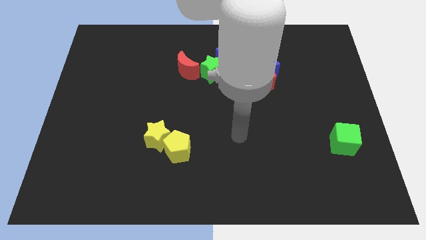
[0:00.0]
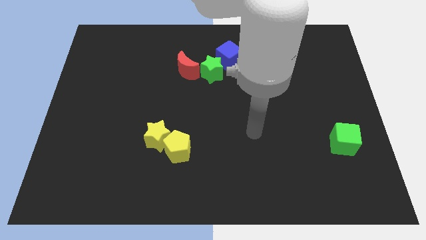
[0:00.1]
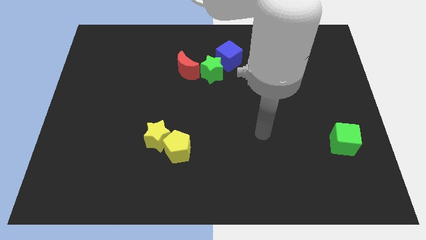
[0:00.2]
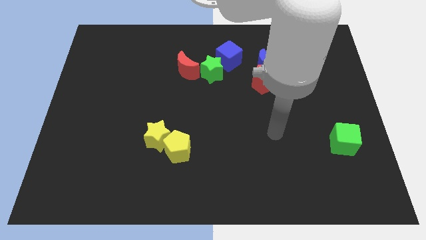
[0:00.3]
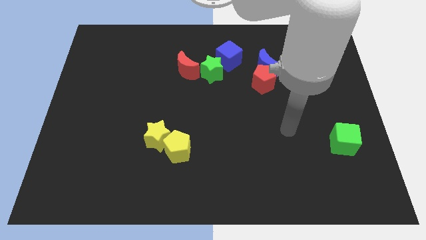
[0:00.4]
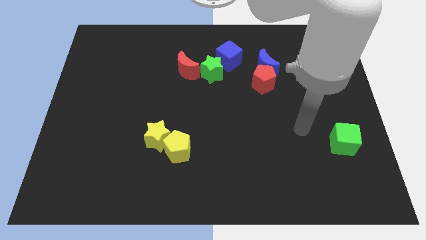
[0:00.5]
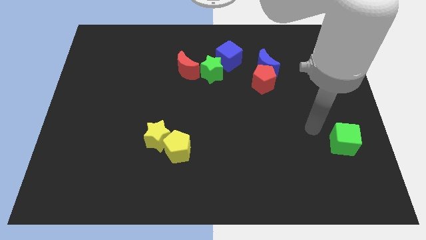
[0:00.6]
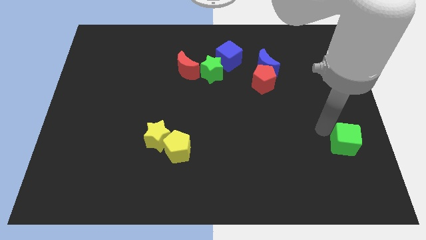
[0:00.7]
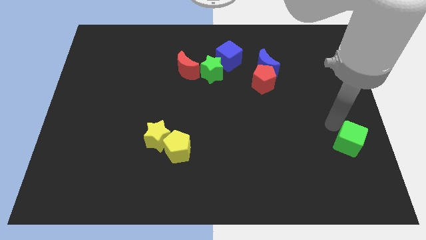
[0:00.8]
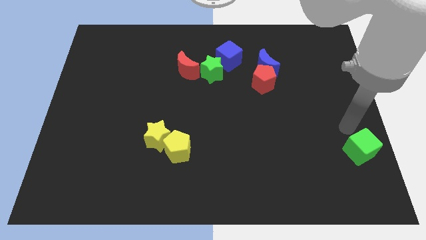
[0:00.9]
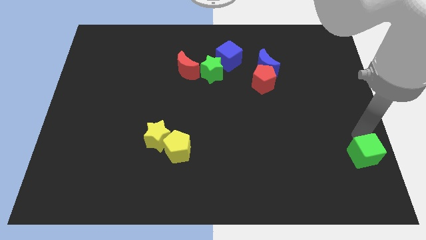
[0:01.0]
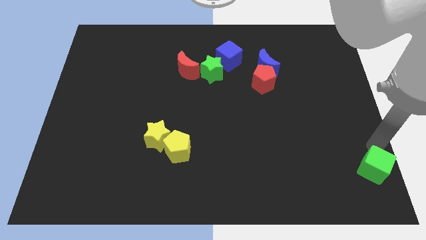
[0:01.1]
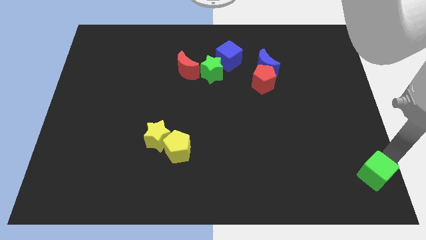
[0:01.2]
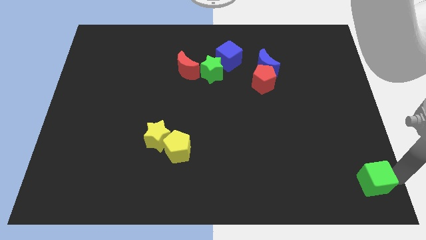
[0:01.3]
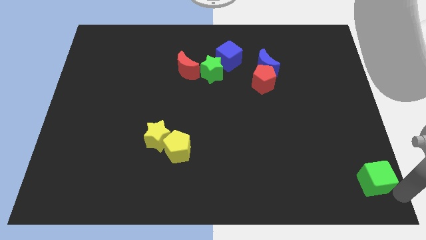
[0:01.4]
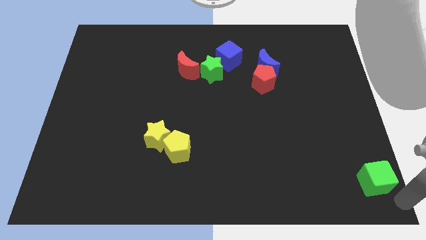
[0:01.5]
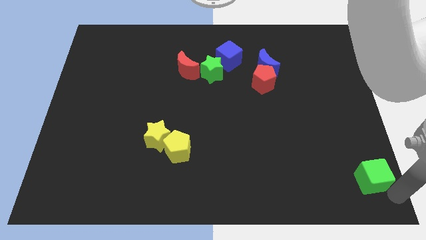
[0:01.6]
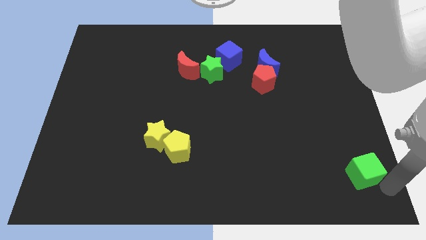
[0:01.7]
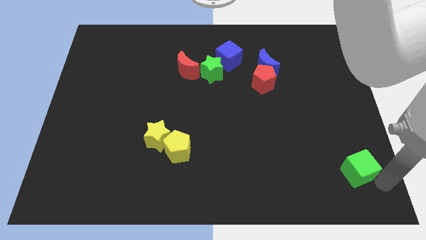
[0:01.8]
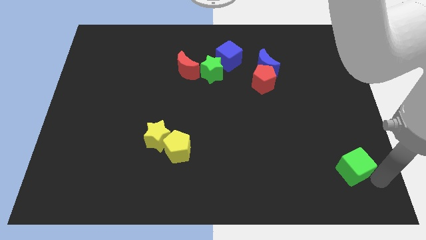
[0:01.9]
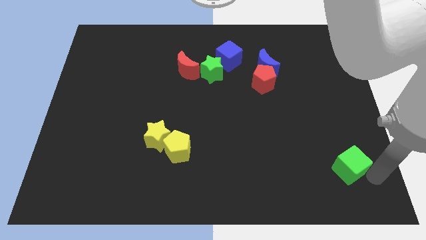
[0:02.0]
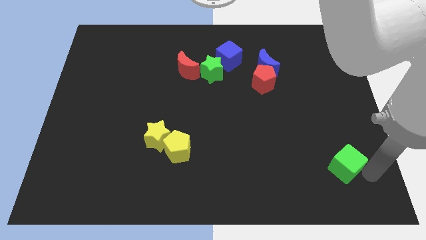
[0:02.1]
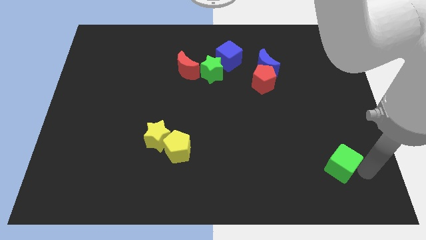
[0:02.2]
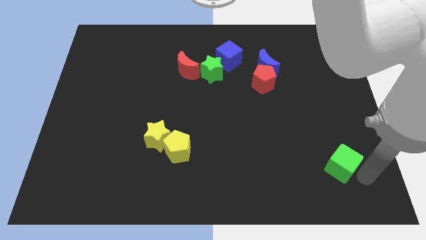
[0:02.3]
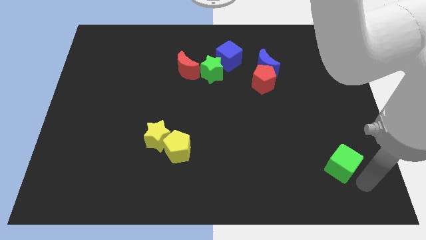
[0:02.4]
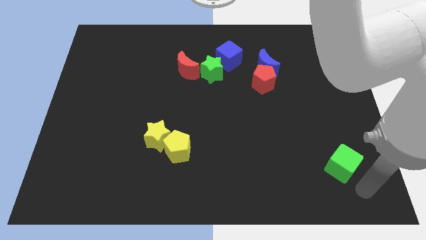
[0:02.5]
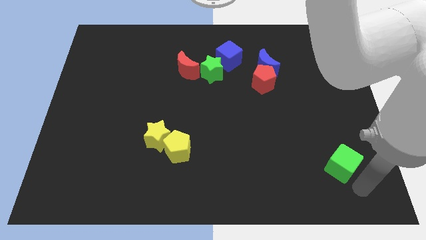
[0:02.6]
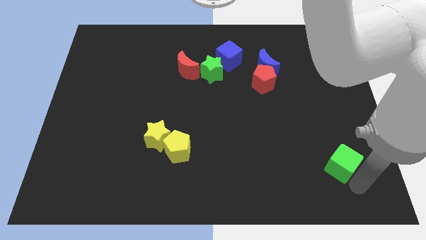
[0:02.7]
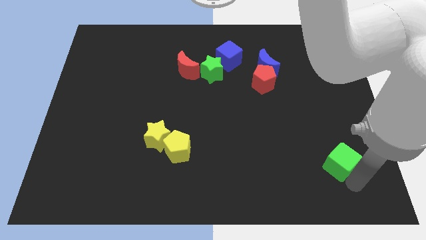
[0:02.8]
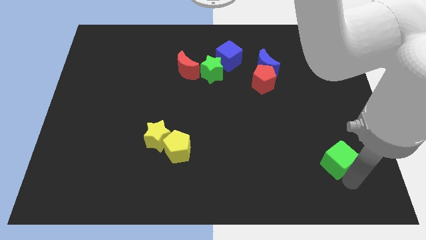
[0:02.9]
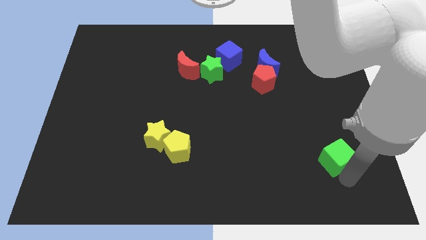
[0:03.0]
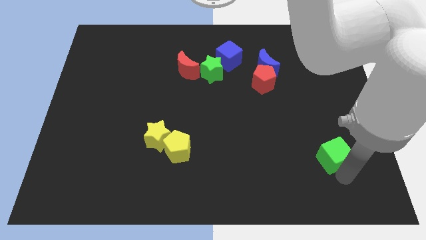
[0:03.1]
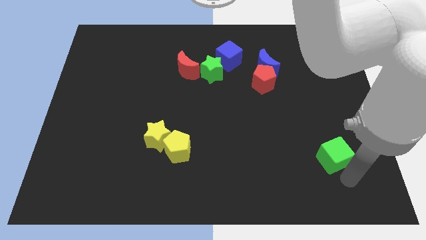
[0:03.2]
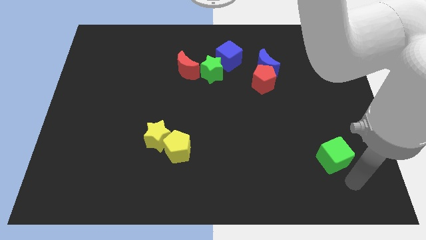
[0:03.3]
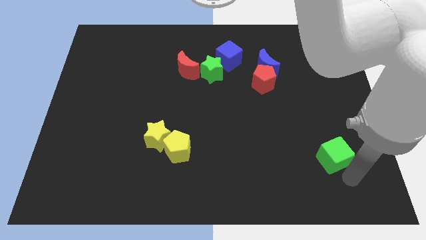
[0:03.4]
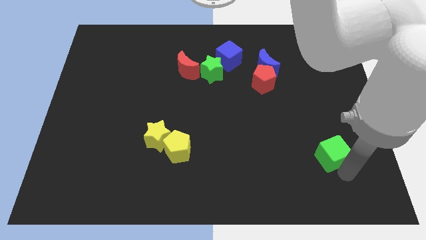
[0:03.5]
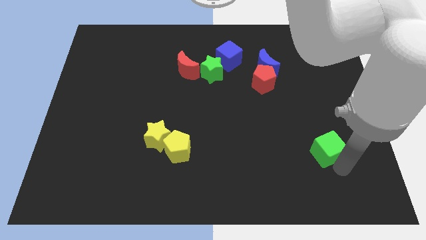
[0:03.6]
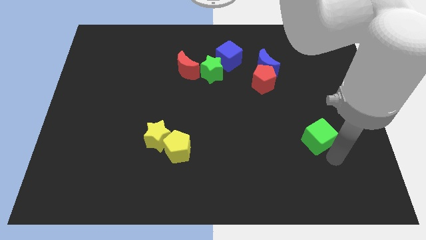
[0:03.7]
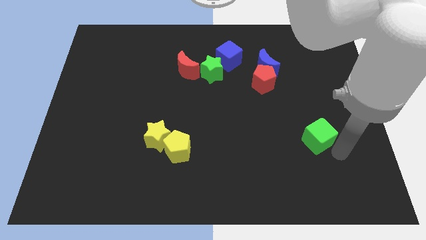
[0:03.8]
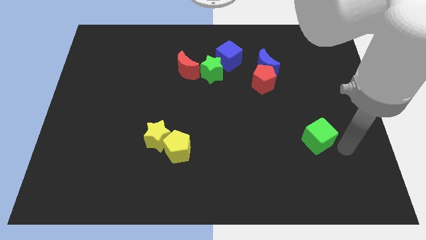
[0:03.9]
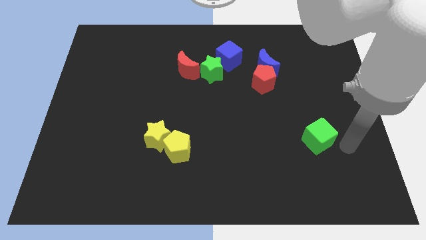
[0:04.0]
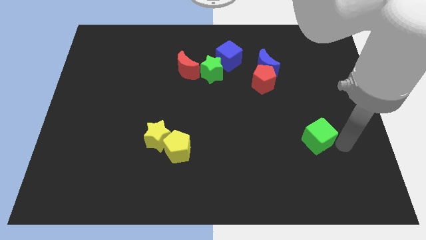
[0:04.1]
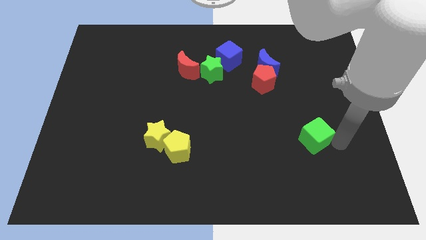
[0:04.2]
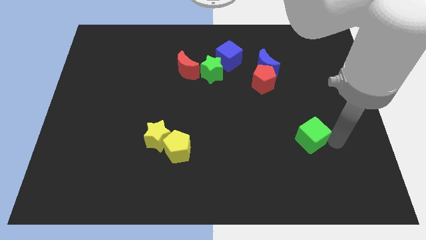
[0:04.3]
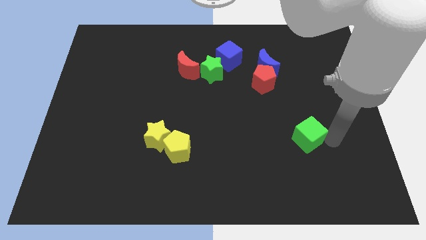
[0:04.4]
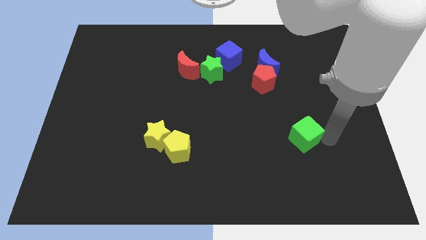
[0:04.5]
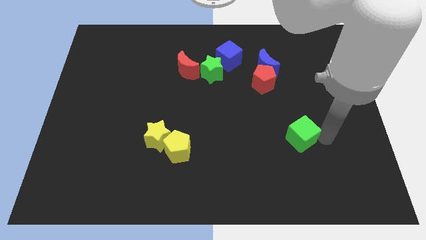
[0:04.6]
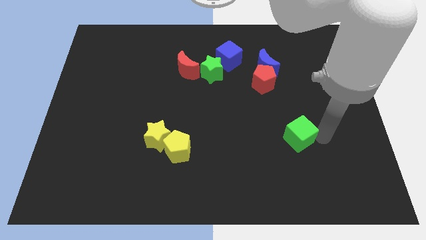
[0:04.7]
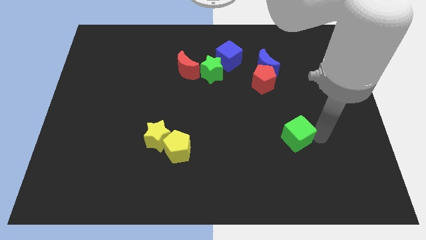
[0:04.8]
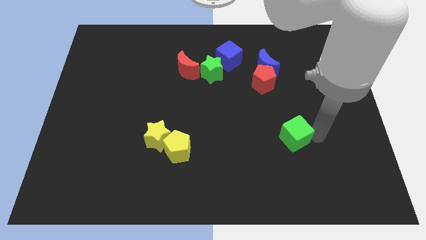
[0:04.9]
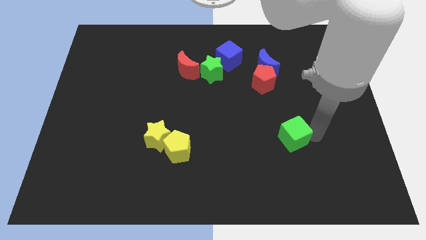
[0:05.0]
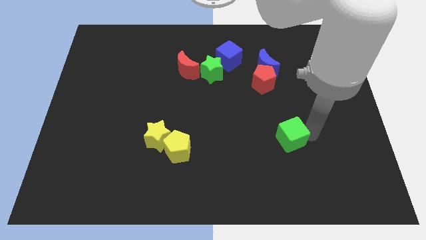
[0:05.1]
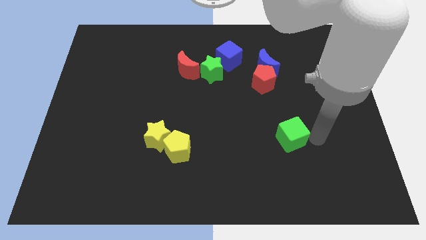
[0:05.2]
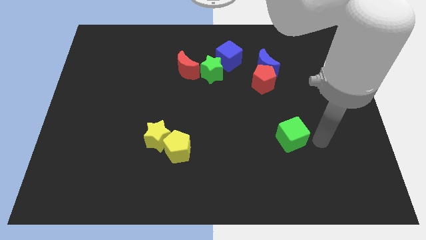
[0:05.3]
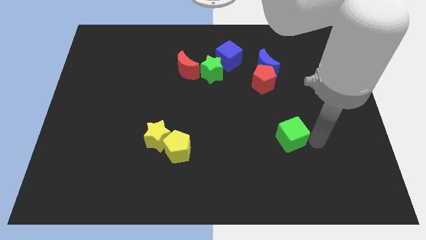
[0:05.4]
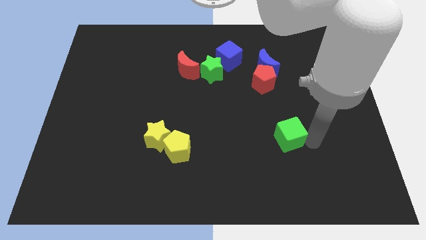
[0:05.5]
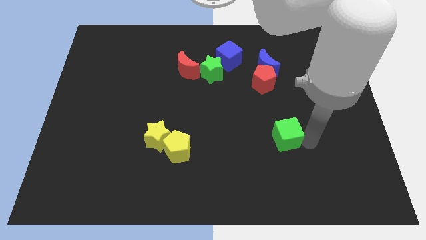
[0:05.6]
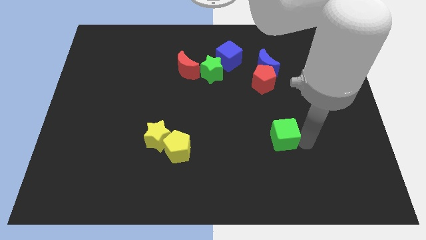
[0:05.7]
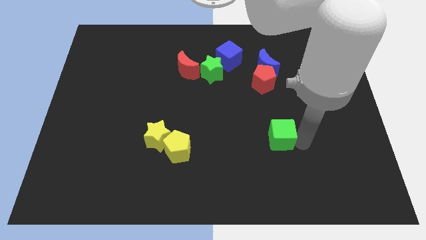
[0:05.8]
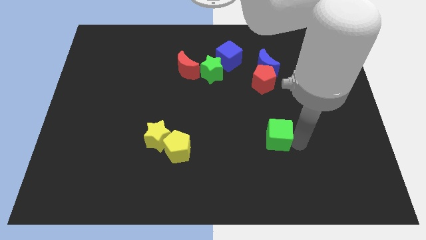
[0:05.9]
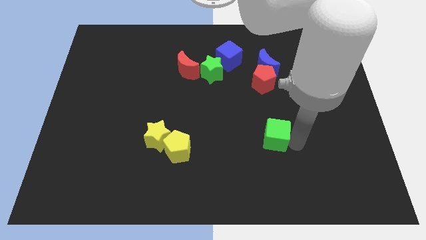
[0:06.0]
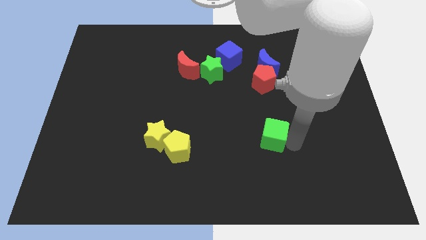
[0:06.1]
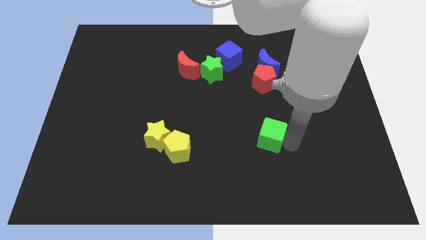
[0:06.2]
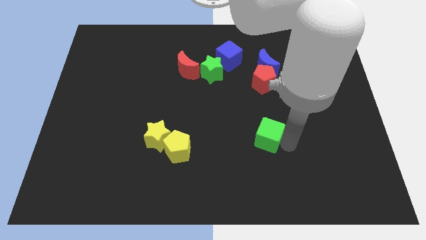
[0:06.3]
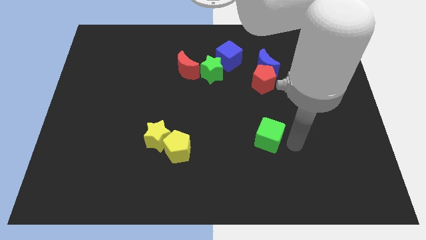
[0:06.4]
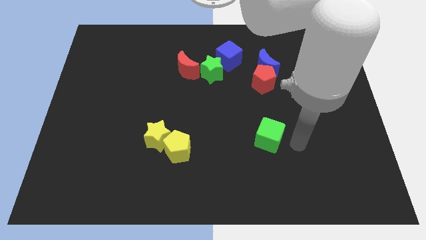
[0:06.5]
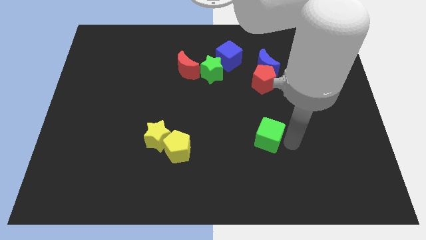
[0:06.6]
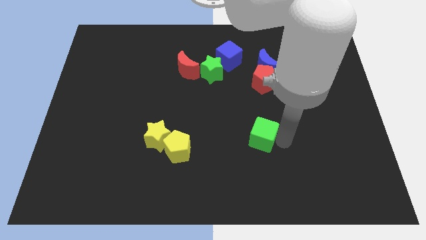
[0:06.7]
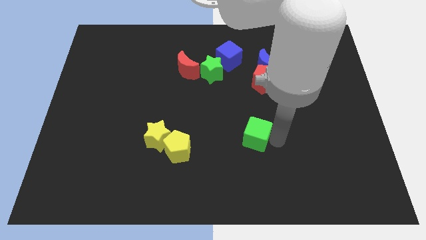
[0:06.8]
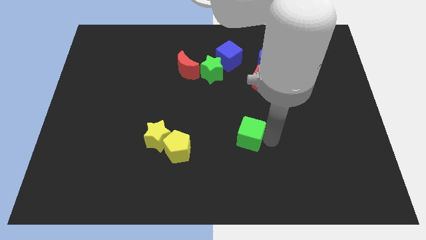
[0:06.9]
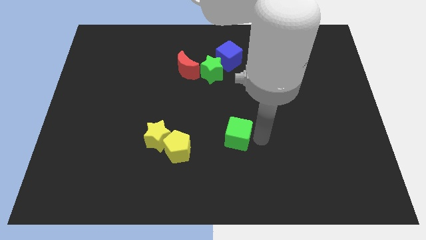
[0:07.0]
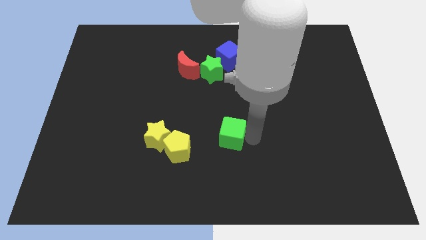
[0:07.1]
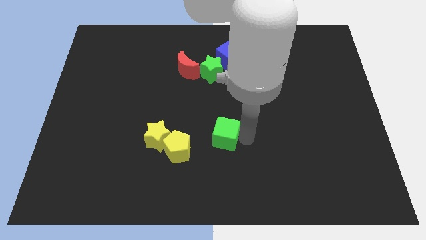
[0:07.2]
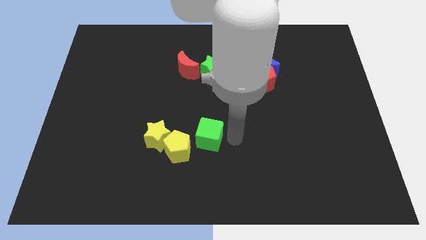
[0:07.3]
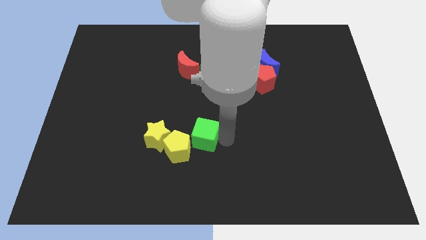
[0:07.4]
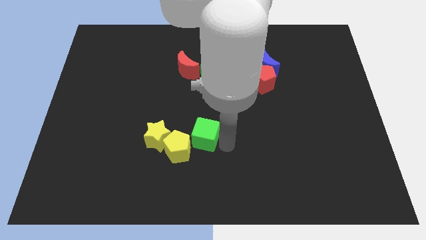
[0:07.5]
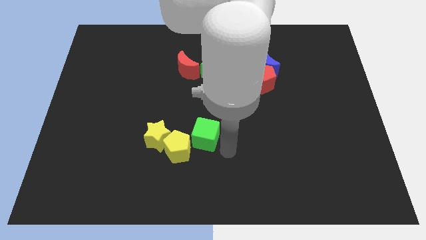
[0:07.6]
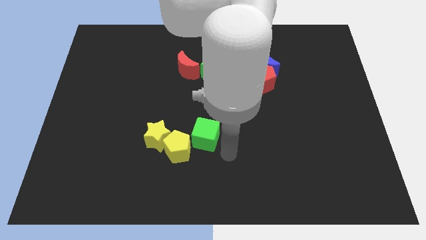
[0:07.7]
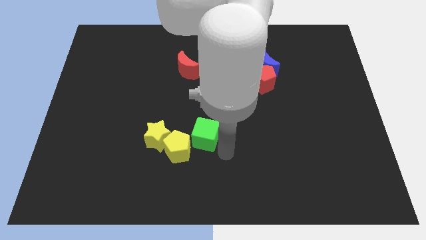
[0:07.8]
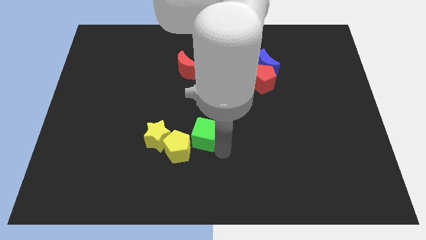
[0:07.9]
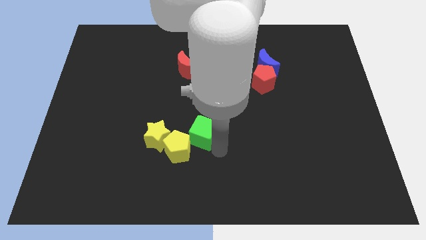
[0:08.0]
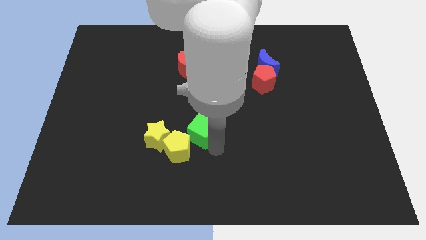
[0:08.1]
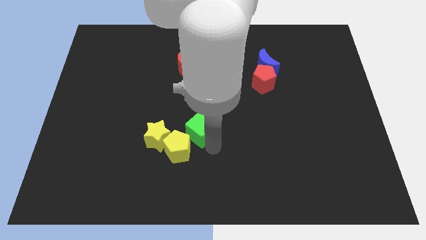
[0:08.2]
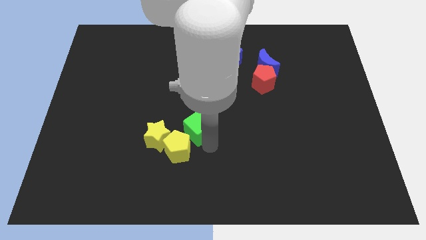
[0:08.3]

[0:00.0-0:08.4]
move the green cube diagonally up and to the right of the yellow star
